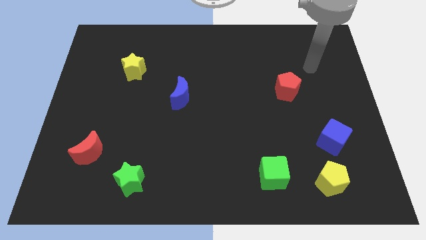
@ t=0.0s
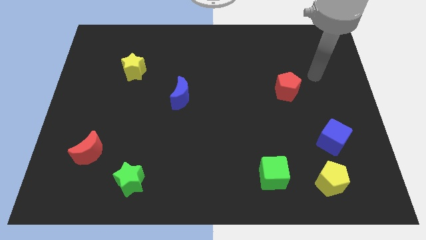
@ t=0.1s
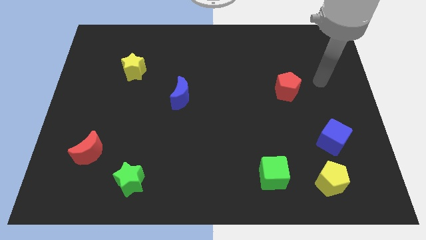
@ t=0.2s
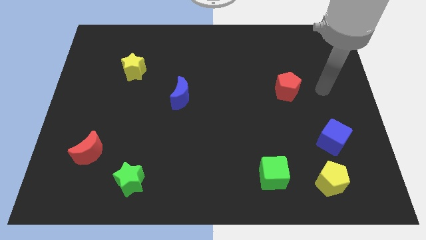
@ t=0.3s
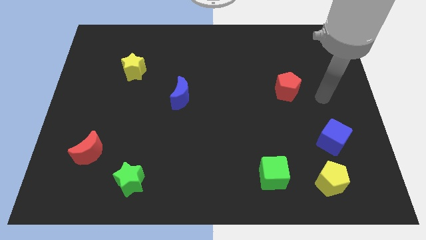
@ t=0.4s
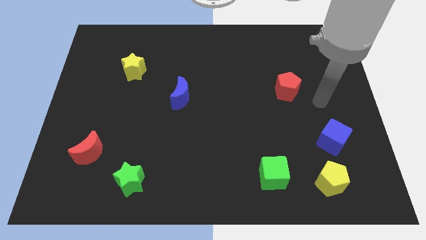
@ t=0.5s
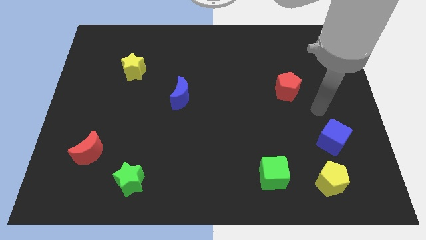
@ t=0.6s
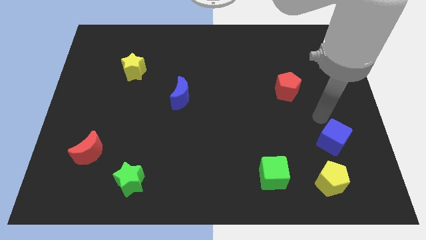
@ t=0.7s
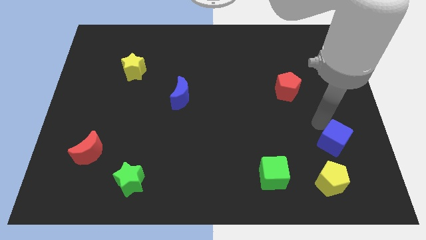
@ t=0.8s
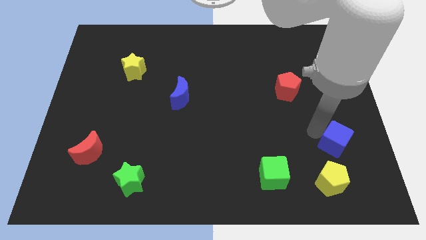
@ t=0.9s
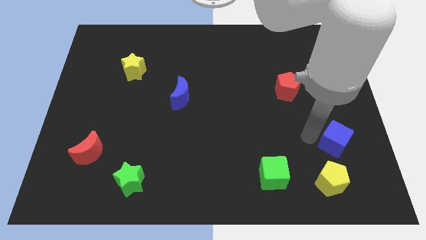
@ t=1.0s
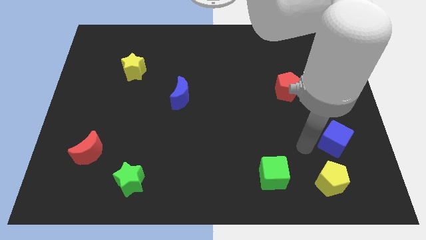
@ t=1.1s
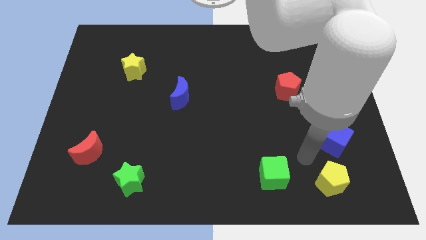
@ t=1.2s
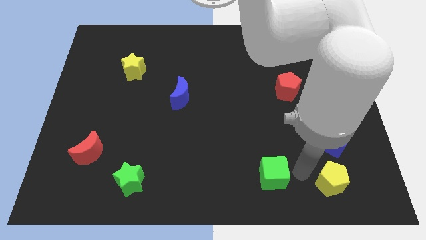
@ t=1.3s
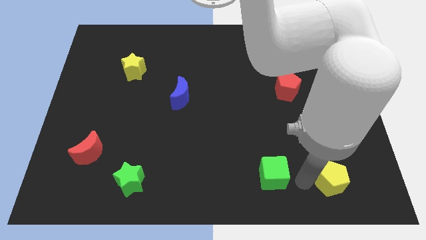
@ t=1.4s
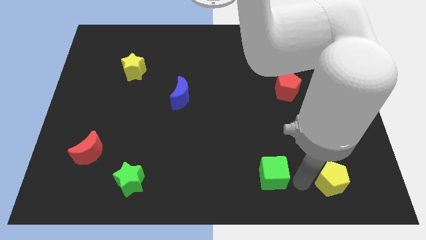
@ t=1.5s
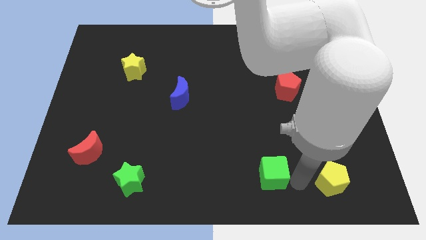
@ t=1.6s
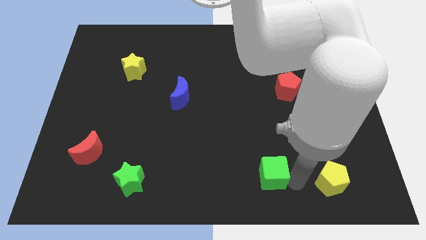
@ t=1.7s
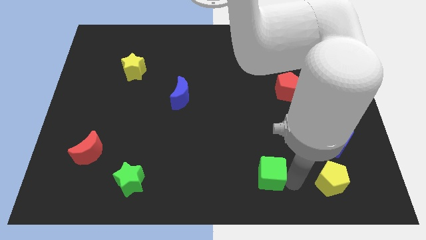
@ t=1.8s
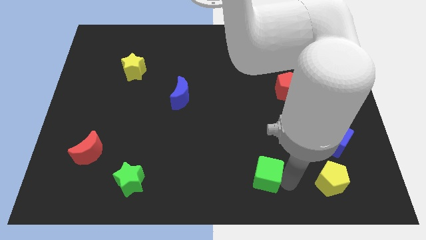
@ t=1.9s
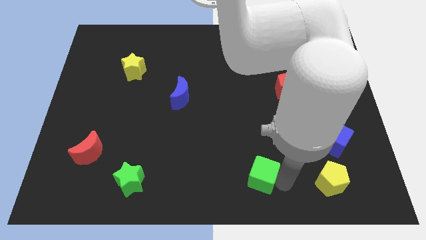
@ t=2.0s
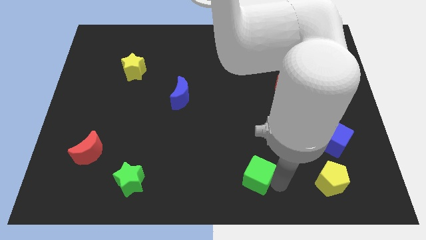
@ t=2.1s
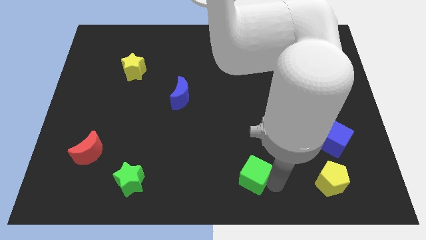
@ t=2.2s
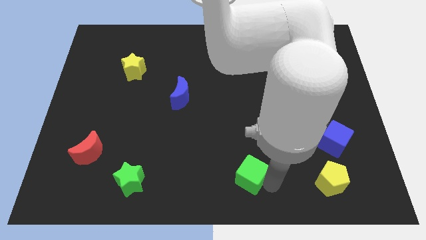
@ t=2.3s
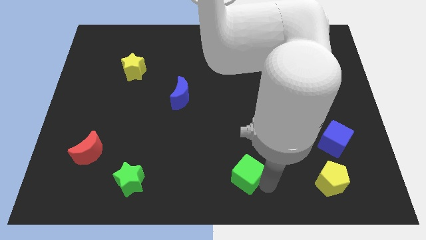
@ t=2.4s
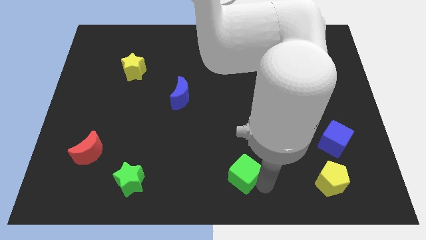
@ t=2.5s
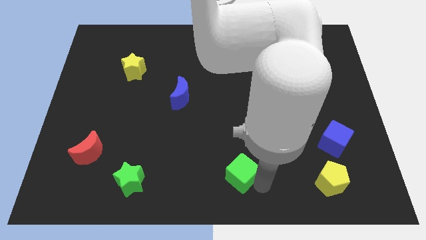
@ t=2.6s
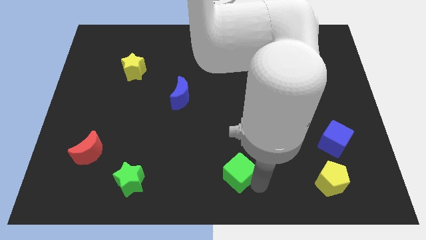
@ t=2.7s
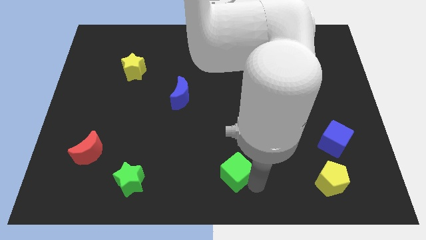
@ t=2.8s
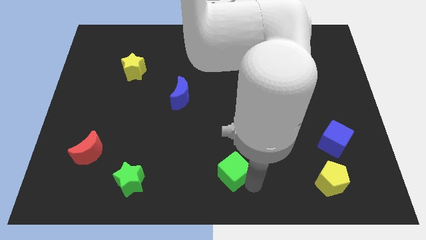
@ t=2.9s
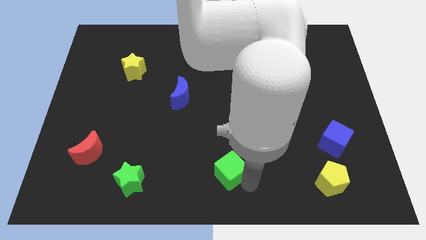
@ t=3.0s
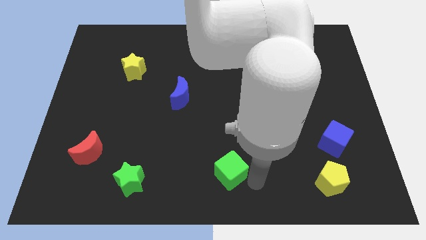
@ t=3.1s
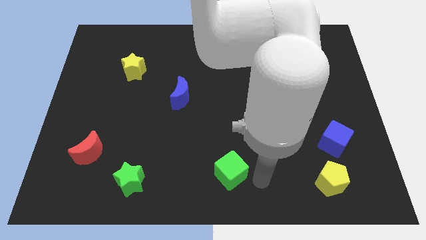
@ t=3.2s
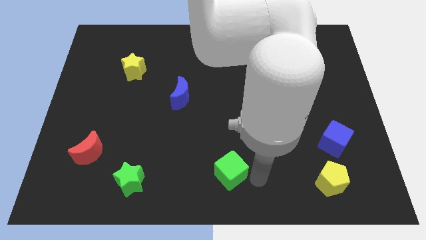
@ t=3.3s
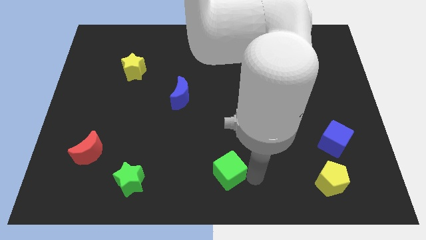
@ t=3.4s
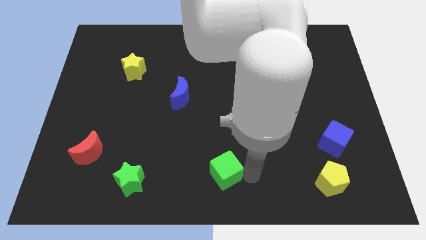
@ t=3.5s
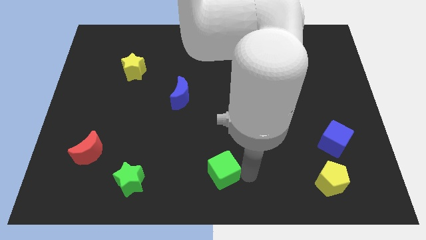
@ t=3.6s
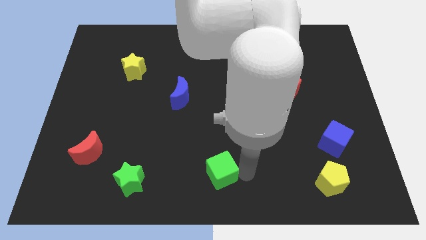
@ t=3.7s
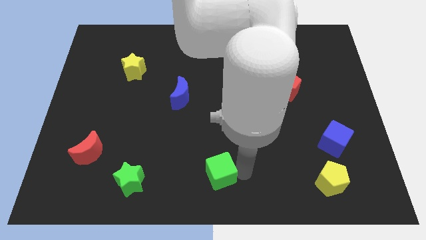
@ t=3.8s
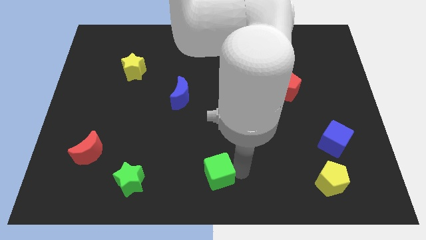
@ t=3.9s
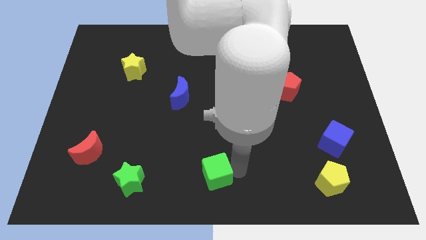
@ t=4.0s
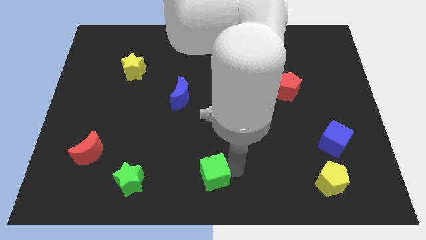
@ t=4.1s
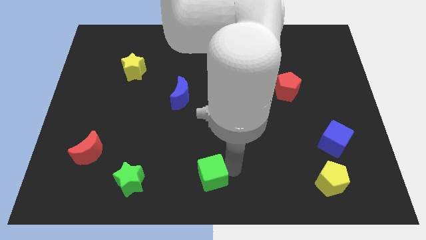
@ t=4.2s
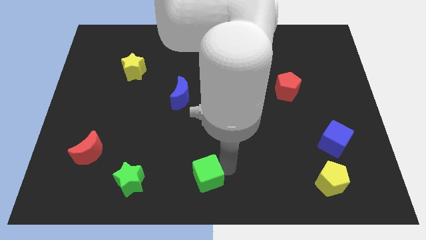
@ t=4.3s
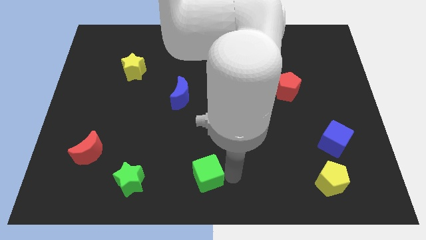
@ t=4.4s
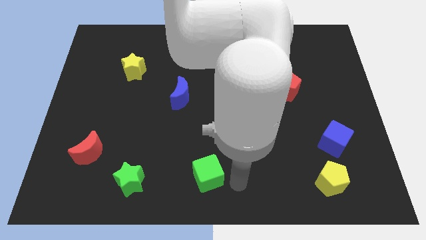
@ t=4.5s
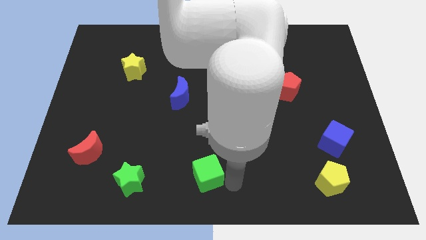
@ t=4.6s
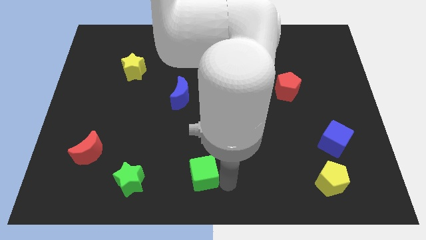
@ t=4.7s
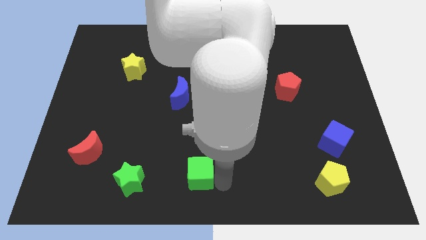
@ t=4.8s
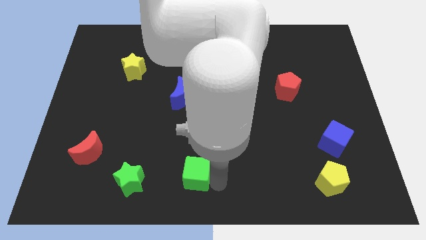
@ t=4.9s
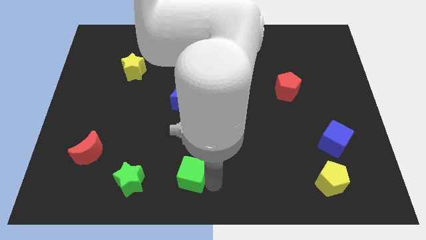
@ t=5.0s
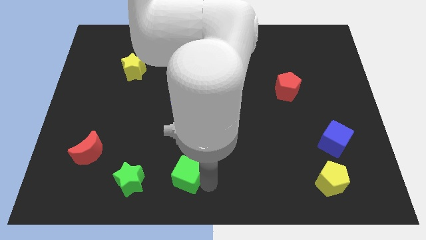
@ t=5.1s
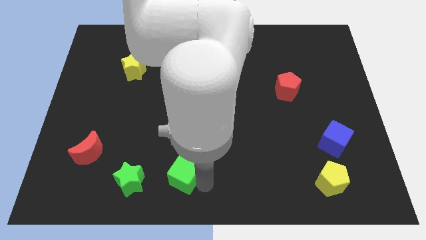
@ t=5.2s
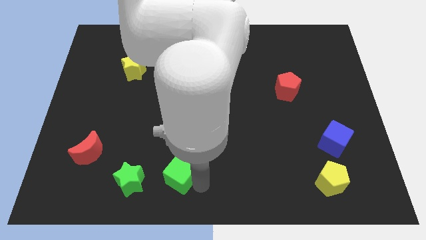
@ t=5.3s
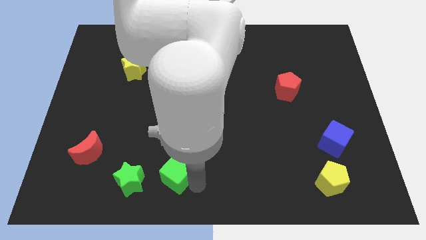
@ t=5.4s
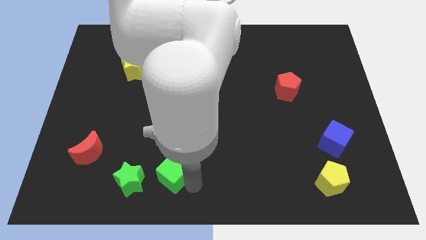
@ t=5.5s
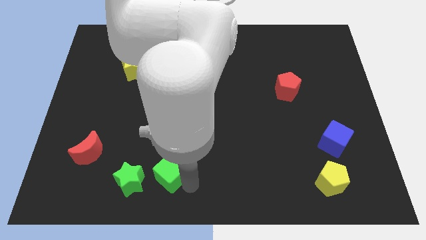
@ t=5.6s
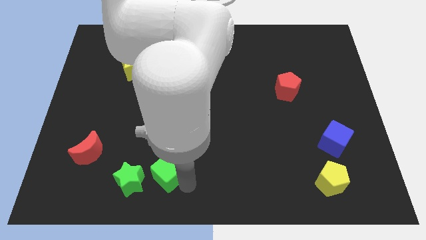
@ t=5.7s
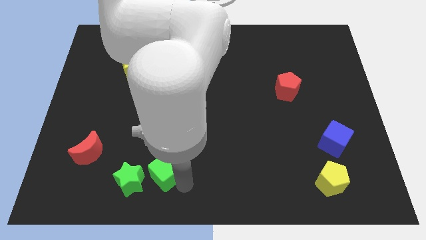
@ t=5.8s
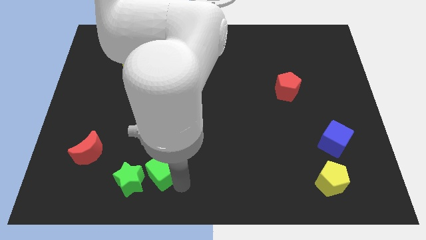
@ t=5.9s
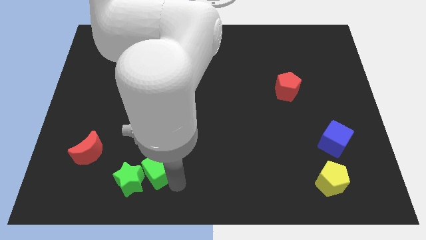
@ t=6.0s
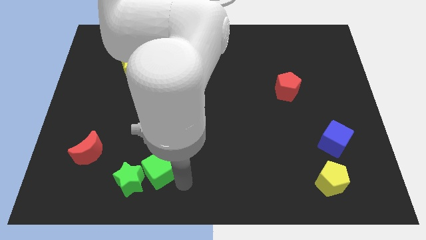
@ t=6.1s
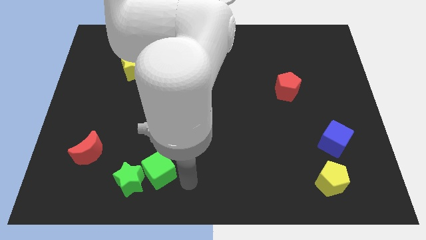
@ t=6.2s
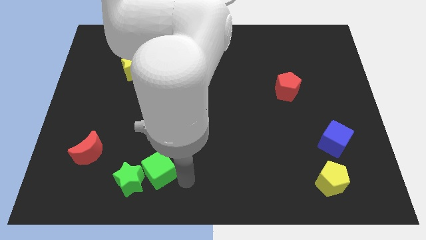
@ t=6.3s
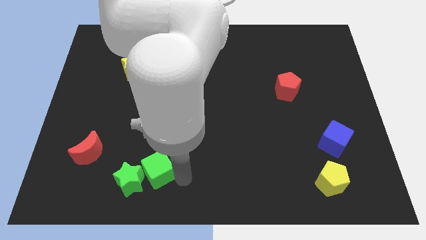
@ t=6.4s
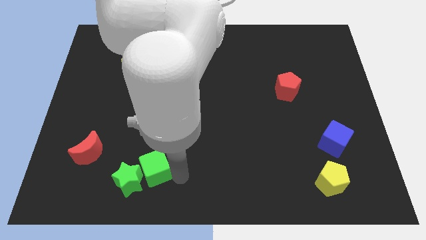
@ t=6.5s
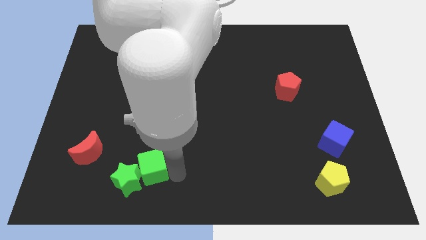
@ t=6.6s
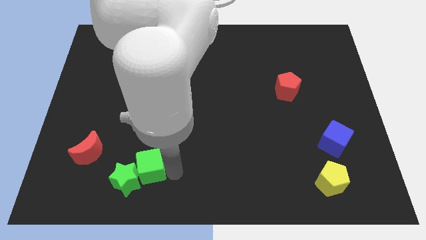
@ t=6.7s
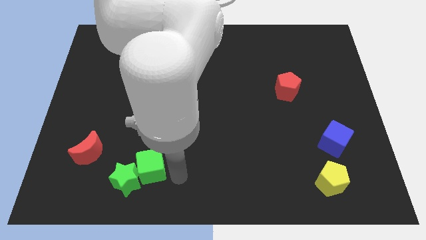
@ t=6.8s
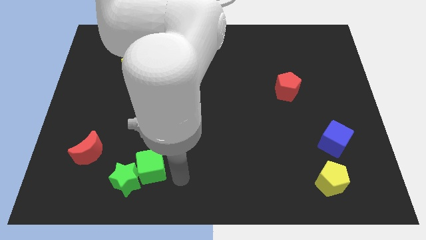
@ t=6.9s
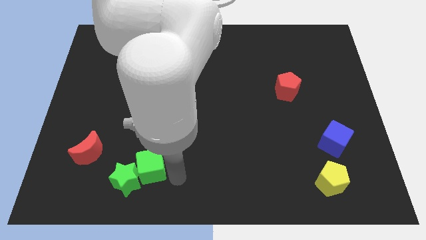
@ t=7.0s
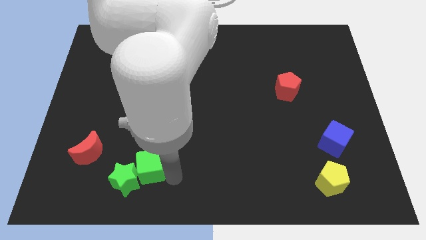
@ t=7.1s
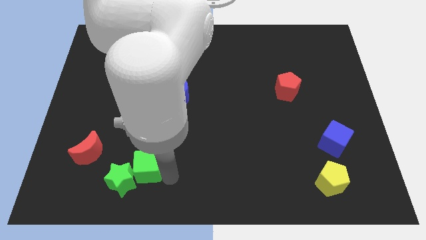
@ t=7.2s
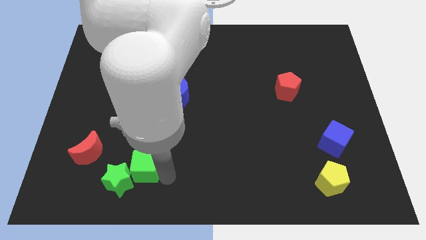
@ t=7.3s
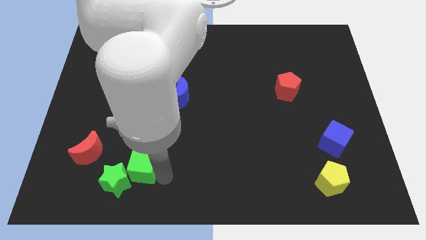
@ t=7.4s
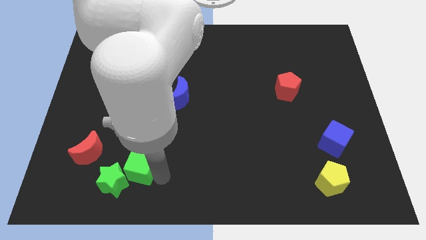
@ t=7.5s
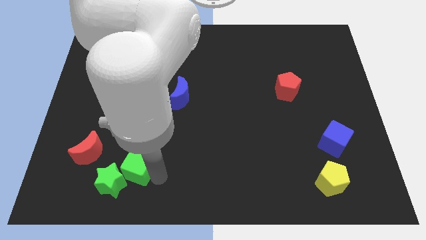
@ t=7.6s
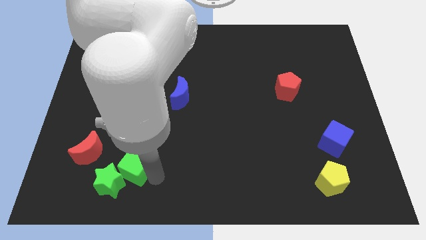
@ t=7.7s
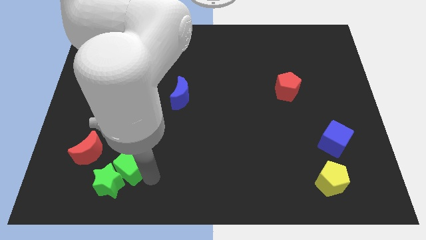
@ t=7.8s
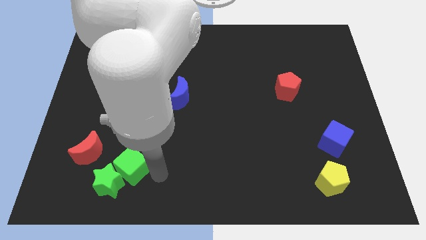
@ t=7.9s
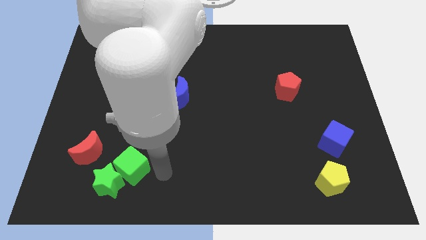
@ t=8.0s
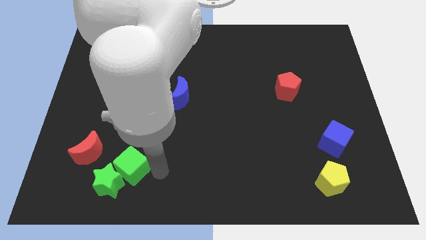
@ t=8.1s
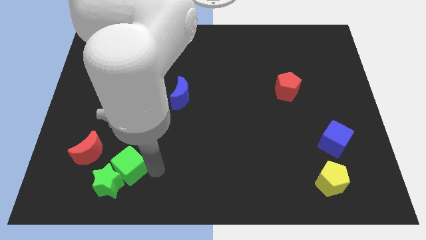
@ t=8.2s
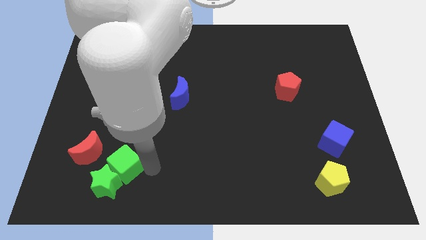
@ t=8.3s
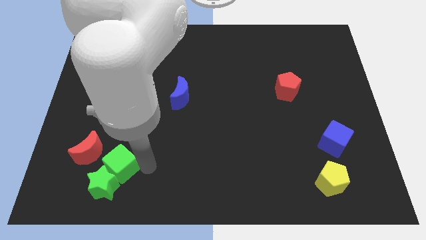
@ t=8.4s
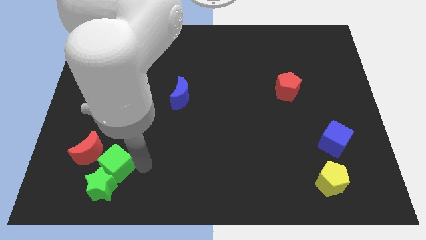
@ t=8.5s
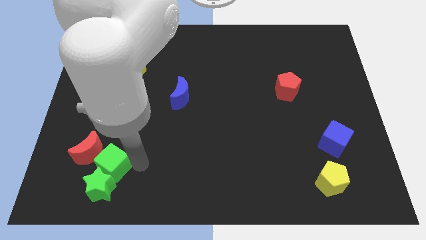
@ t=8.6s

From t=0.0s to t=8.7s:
slide the green cube to the top left of the green star
